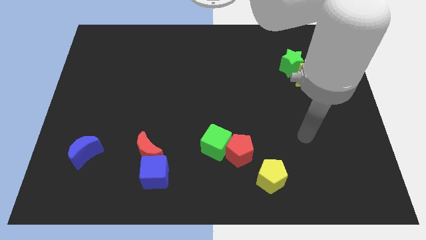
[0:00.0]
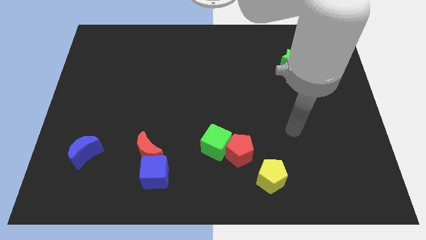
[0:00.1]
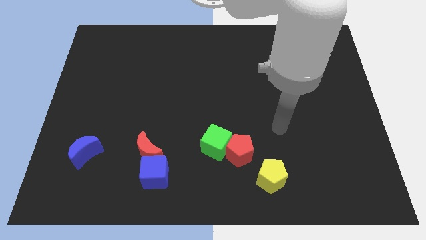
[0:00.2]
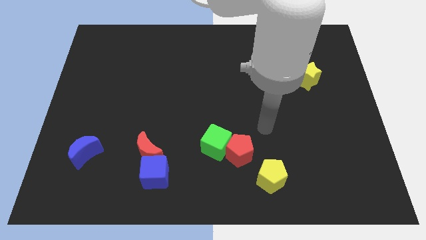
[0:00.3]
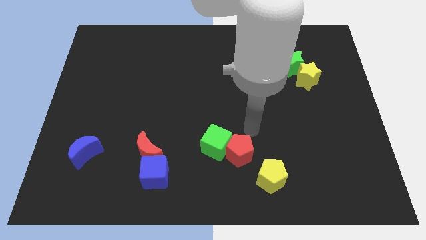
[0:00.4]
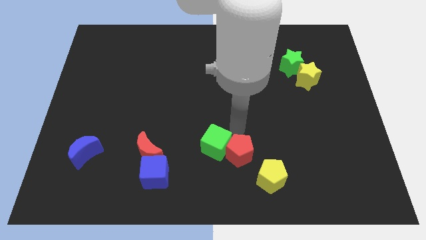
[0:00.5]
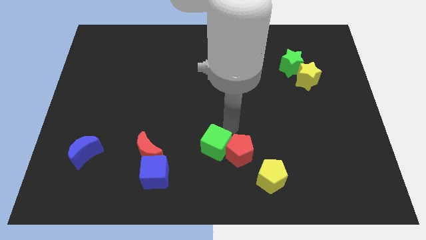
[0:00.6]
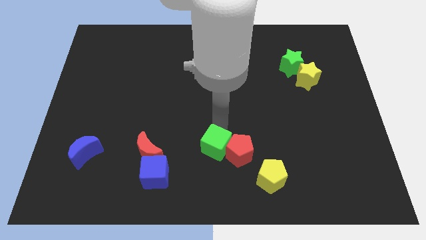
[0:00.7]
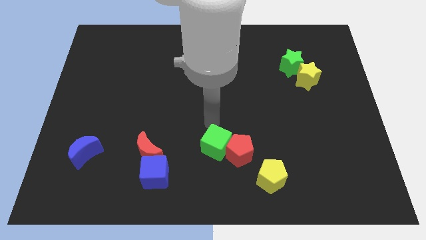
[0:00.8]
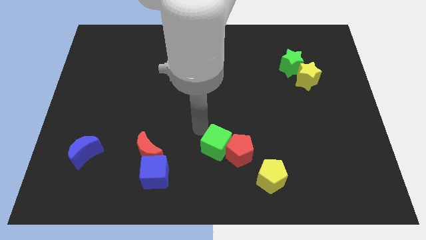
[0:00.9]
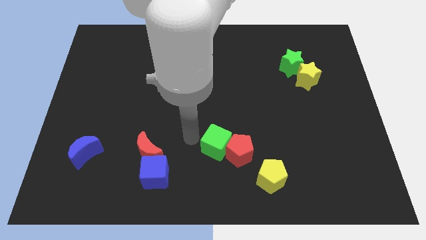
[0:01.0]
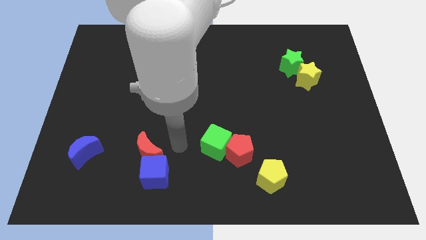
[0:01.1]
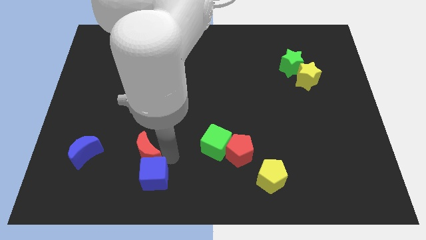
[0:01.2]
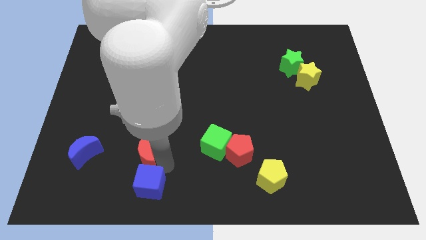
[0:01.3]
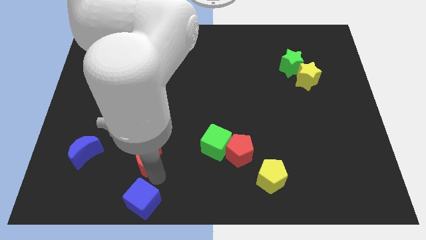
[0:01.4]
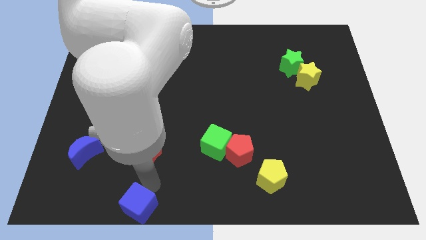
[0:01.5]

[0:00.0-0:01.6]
move the red moon away from the blue cube

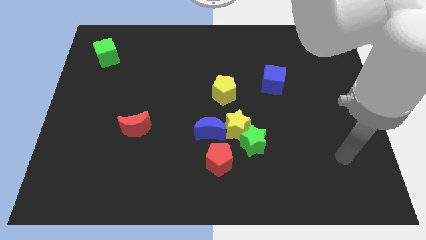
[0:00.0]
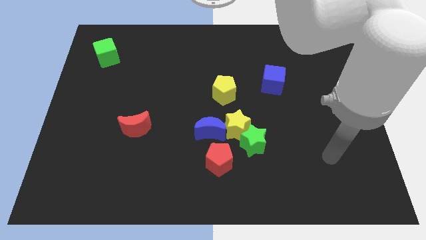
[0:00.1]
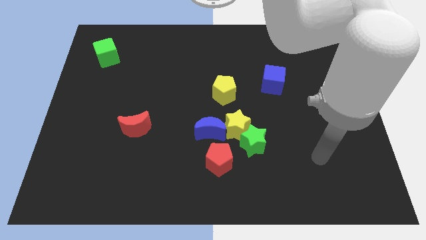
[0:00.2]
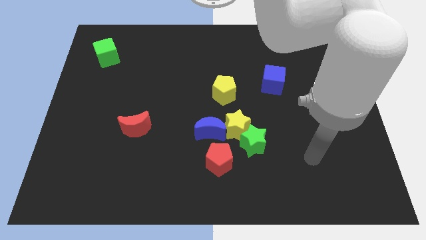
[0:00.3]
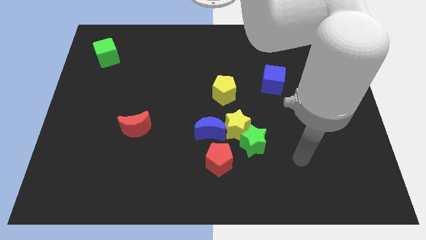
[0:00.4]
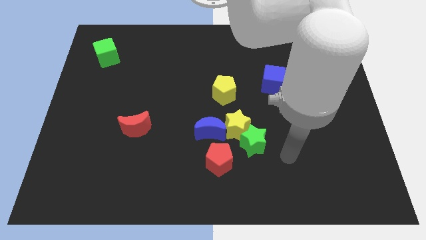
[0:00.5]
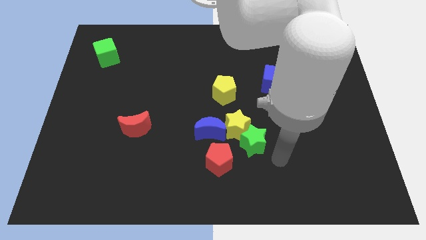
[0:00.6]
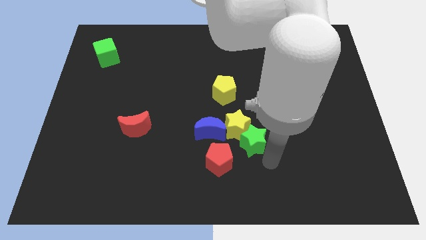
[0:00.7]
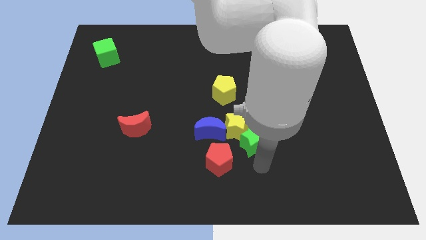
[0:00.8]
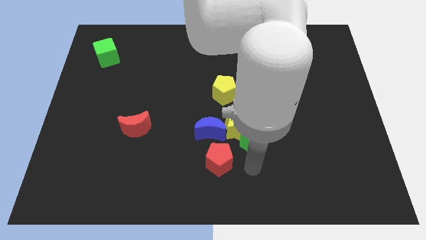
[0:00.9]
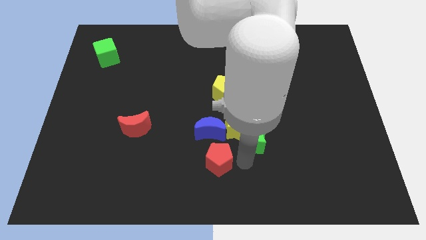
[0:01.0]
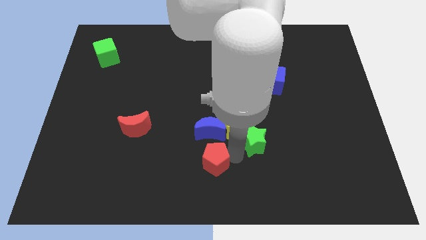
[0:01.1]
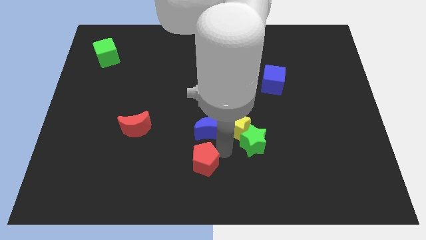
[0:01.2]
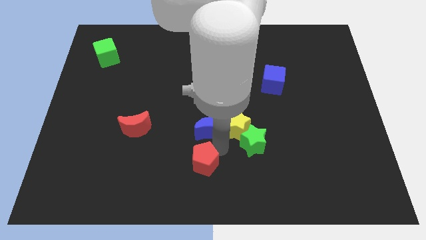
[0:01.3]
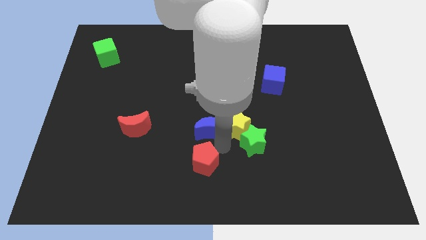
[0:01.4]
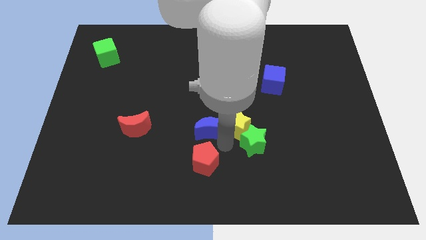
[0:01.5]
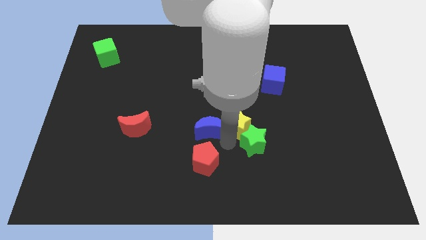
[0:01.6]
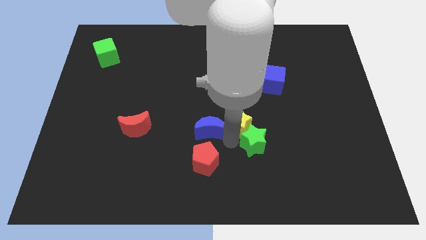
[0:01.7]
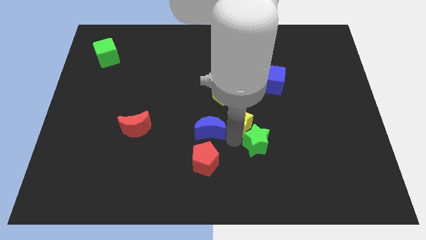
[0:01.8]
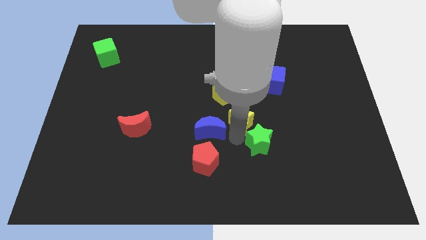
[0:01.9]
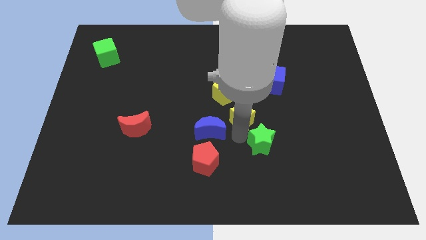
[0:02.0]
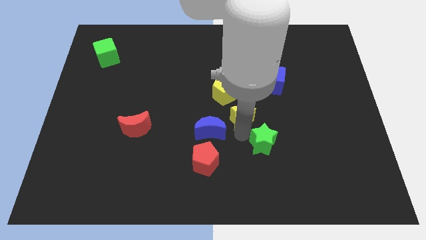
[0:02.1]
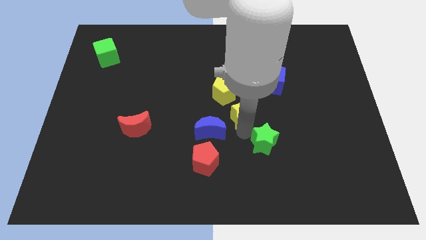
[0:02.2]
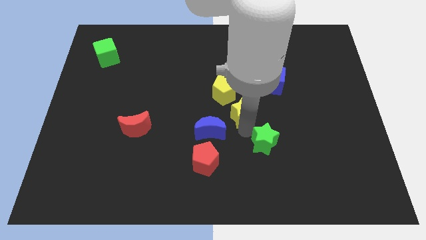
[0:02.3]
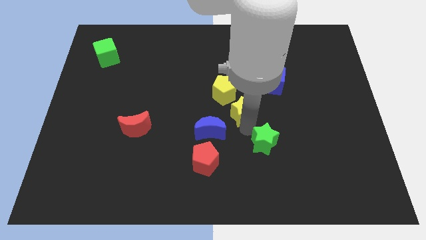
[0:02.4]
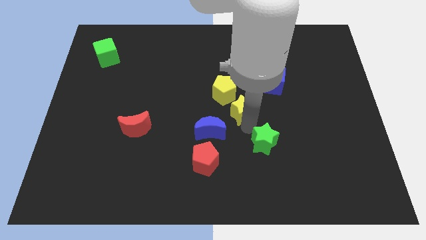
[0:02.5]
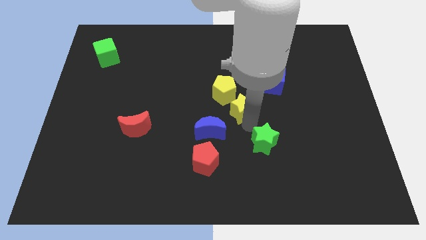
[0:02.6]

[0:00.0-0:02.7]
separate the yellow star from the green star, blue moon, and red pentagon

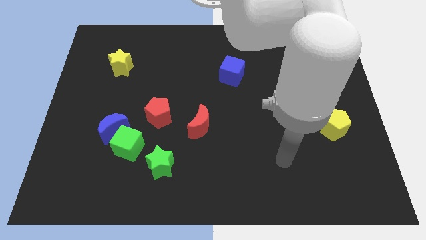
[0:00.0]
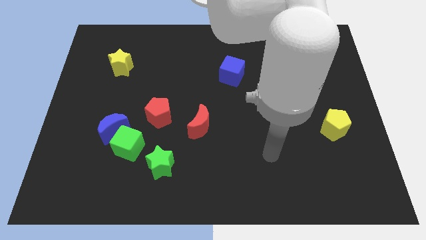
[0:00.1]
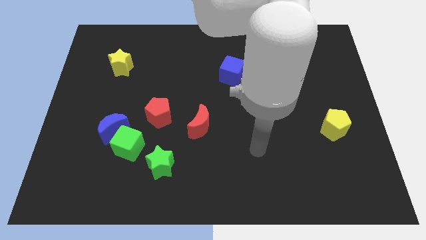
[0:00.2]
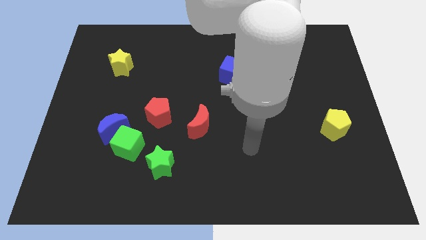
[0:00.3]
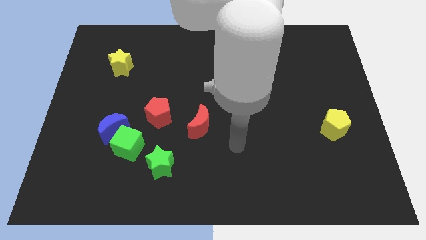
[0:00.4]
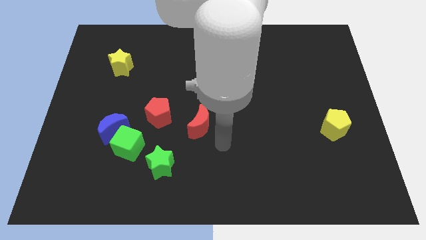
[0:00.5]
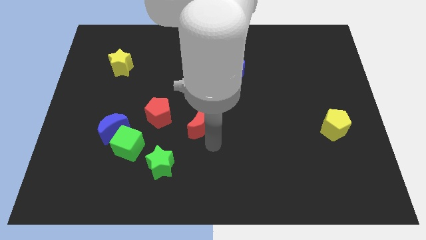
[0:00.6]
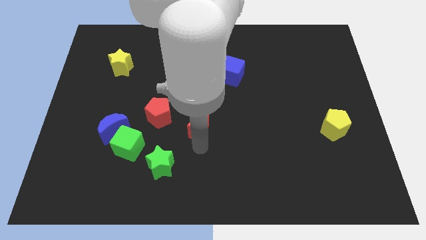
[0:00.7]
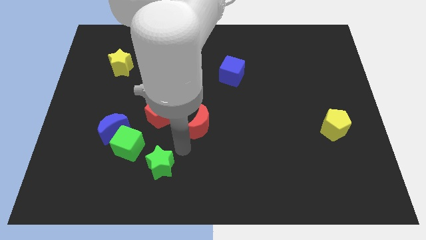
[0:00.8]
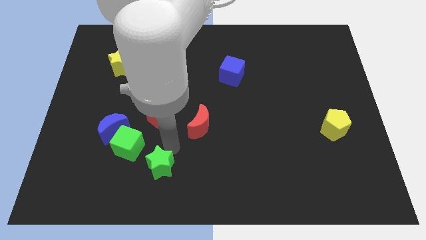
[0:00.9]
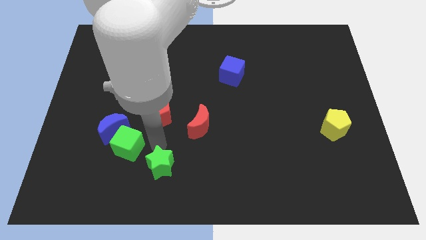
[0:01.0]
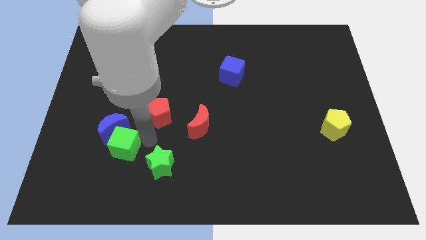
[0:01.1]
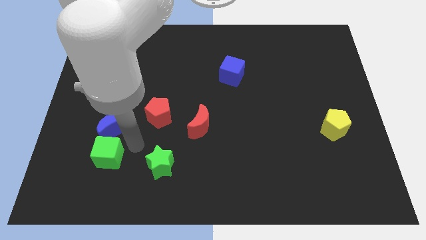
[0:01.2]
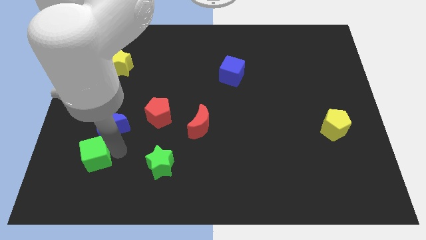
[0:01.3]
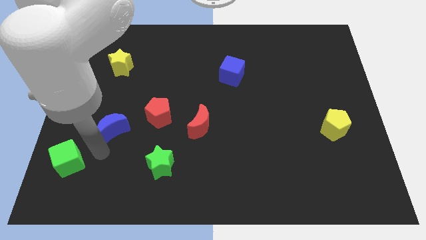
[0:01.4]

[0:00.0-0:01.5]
move the blue moon away from the green cube

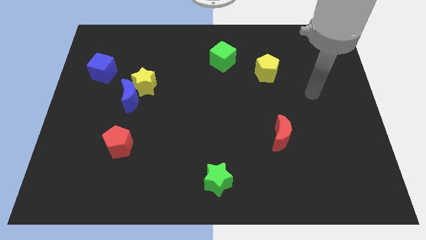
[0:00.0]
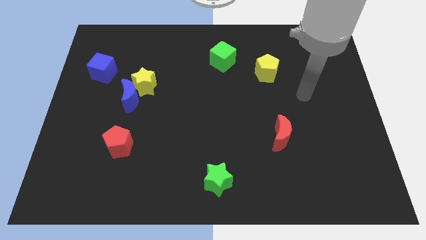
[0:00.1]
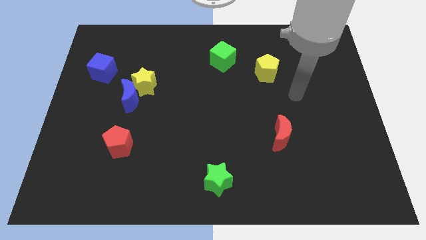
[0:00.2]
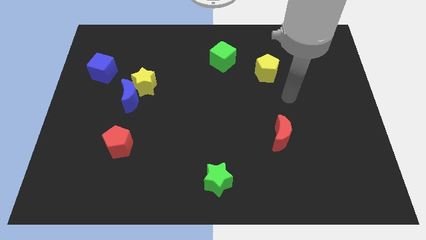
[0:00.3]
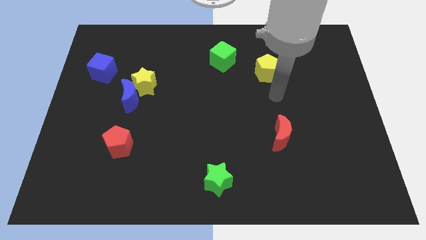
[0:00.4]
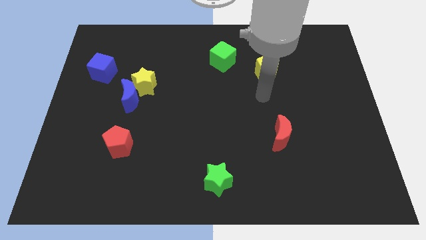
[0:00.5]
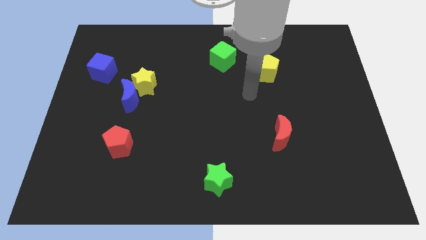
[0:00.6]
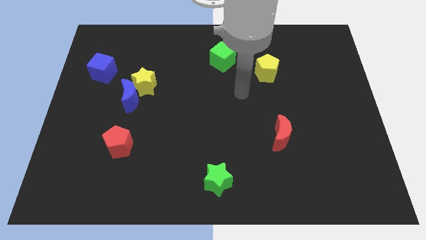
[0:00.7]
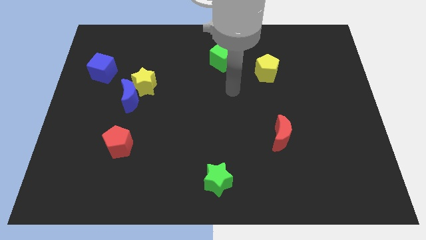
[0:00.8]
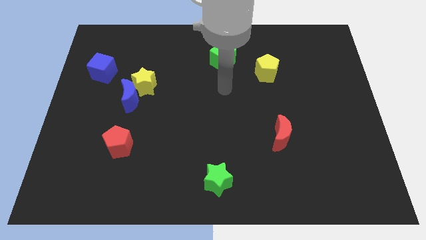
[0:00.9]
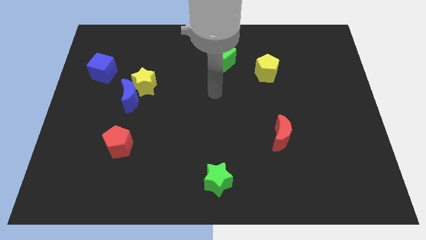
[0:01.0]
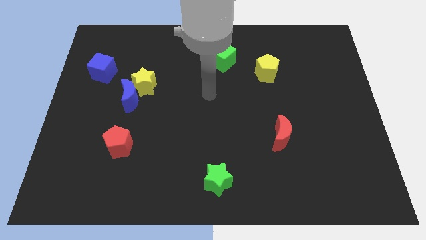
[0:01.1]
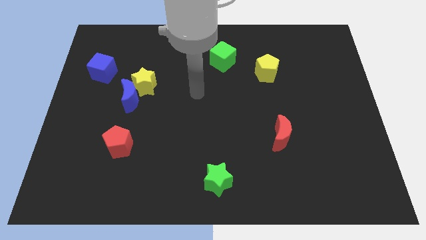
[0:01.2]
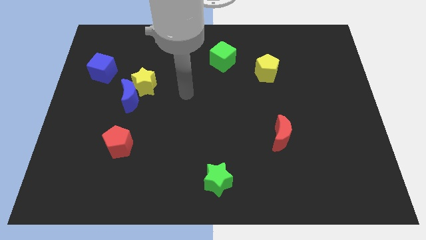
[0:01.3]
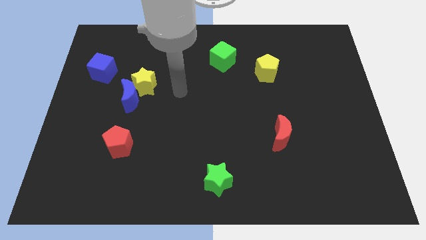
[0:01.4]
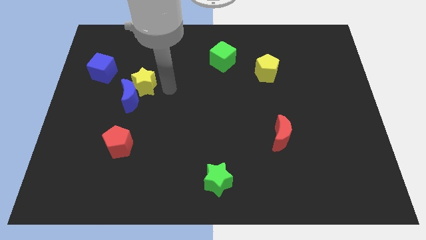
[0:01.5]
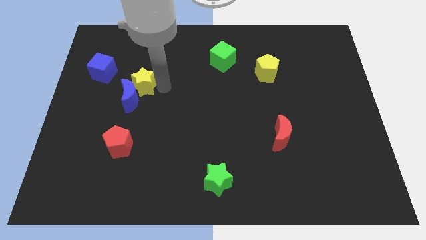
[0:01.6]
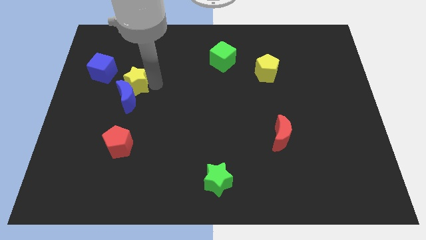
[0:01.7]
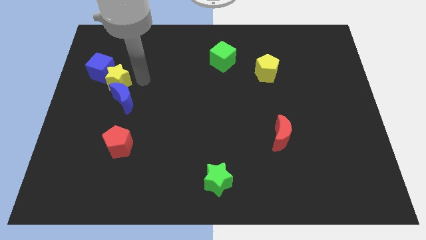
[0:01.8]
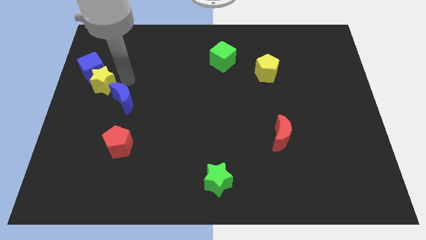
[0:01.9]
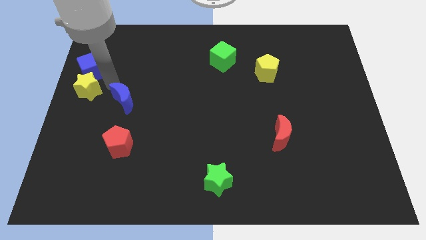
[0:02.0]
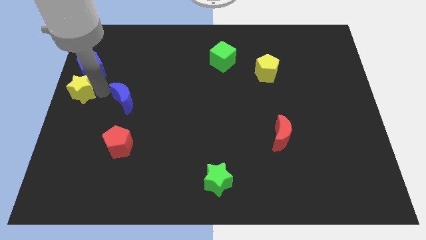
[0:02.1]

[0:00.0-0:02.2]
pull the blue moon apart from the yellow star

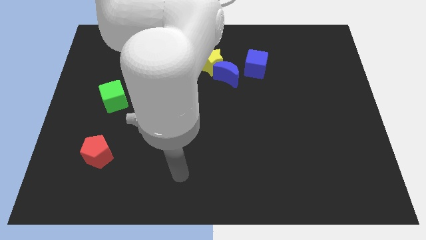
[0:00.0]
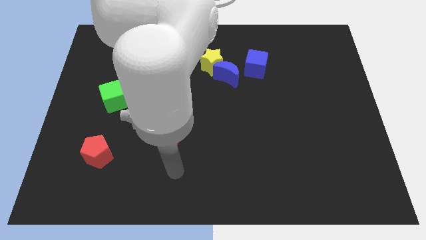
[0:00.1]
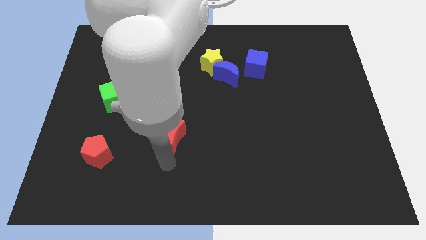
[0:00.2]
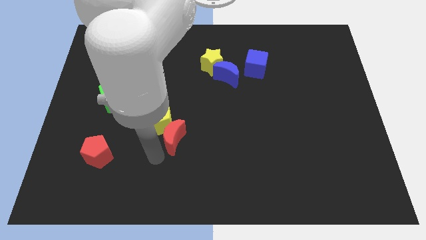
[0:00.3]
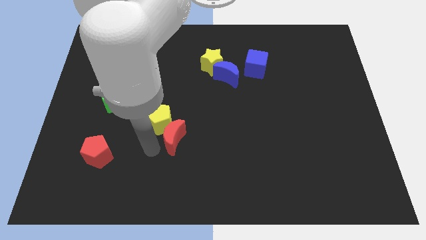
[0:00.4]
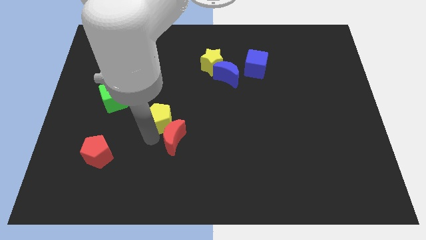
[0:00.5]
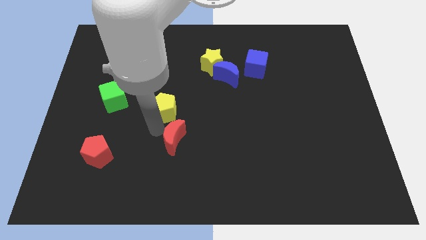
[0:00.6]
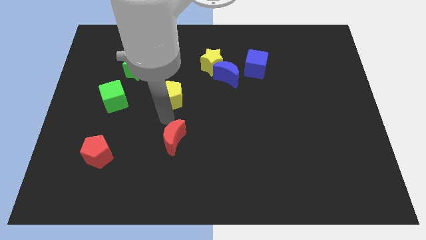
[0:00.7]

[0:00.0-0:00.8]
move the red moon away from the yellow pentagon

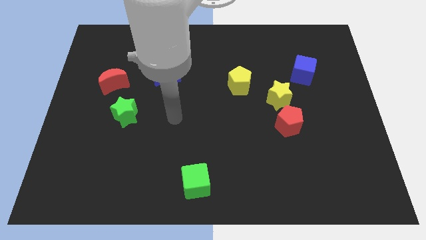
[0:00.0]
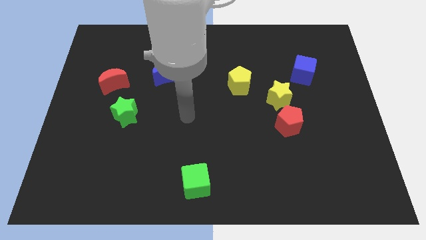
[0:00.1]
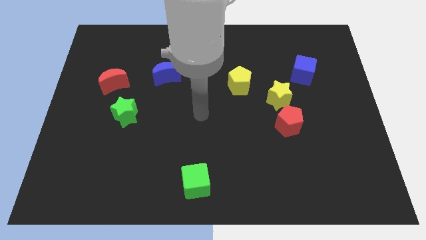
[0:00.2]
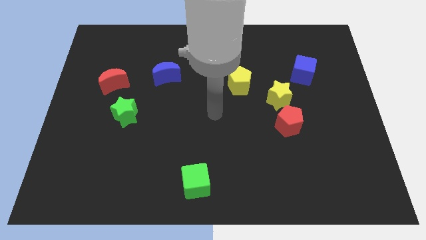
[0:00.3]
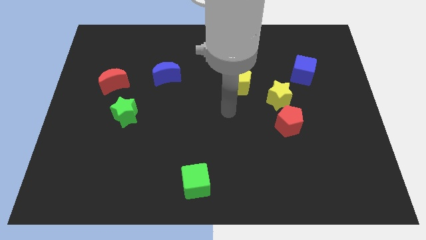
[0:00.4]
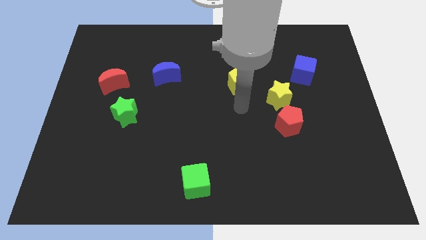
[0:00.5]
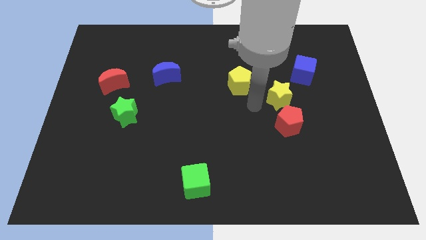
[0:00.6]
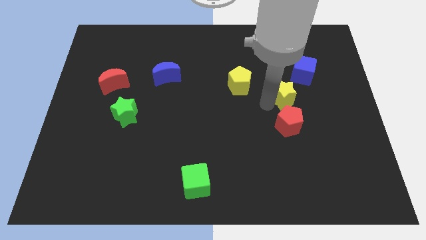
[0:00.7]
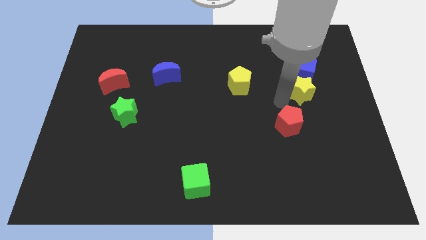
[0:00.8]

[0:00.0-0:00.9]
move the red pentagon away from the yellow star
